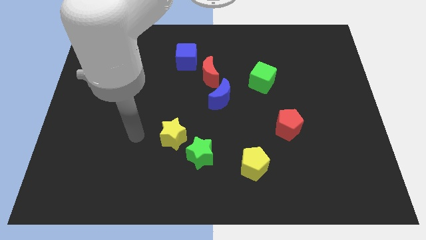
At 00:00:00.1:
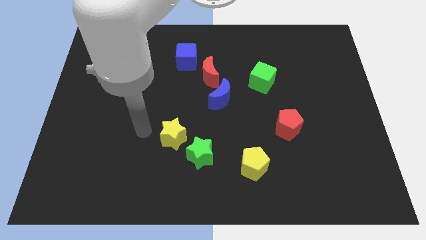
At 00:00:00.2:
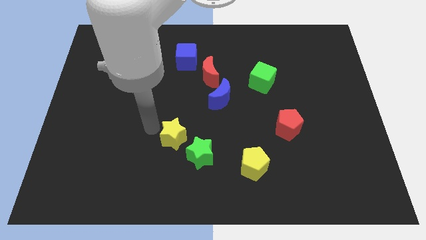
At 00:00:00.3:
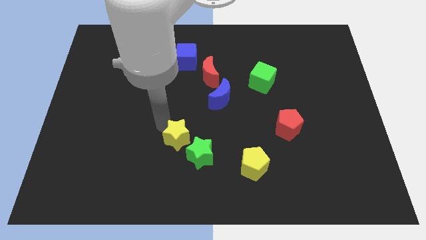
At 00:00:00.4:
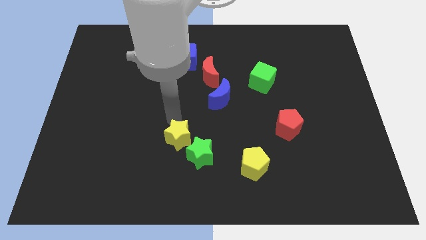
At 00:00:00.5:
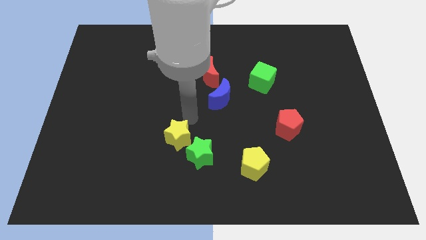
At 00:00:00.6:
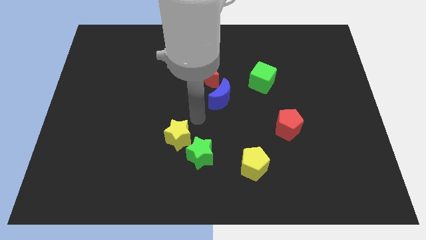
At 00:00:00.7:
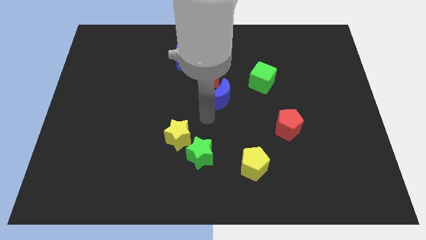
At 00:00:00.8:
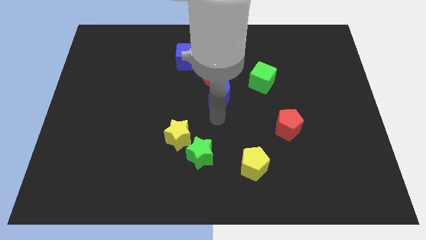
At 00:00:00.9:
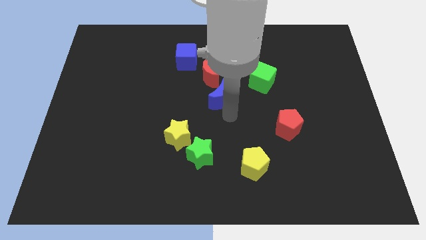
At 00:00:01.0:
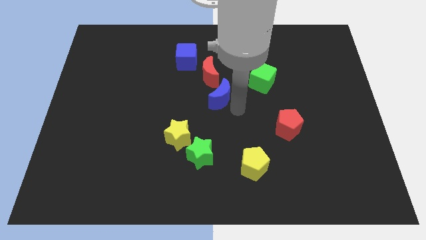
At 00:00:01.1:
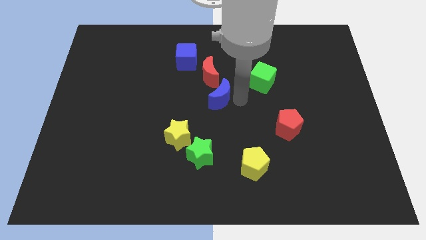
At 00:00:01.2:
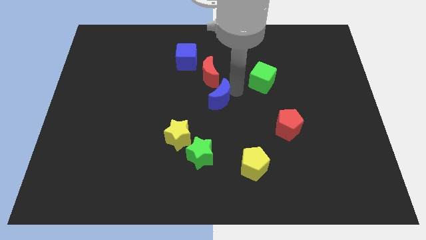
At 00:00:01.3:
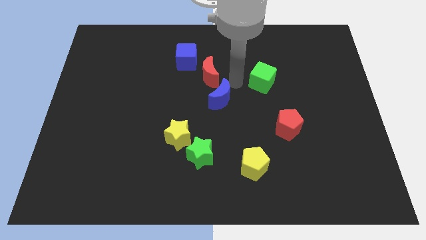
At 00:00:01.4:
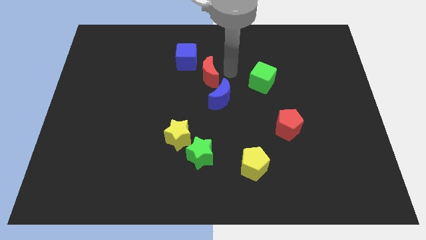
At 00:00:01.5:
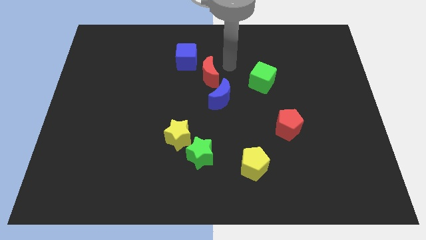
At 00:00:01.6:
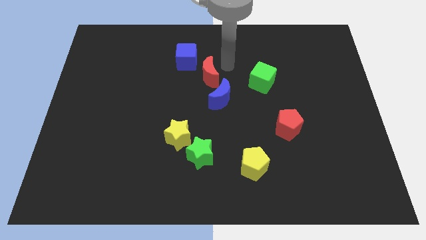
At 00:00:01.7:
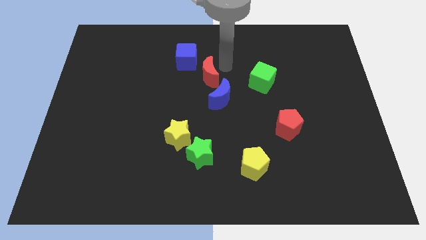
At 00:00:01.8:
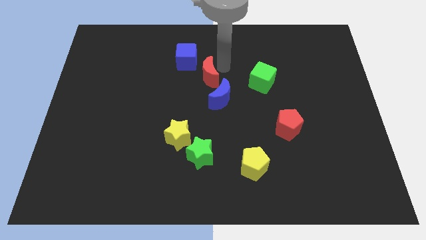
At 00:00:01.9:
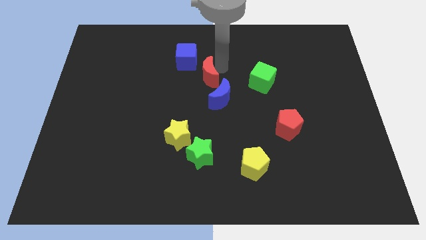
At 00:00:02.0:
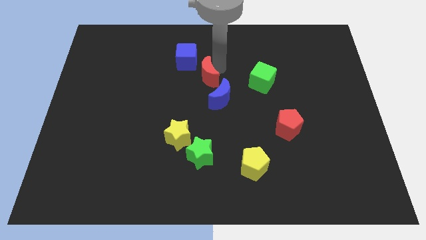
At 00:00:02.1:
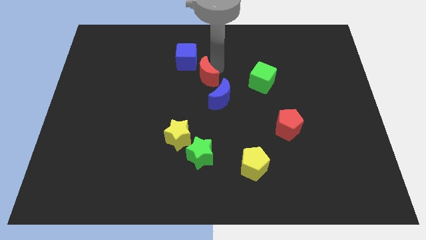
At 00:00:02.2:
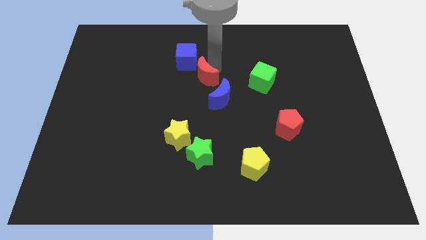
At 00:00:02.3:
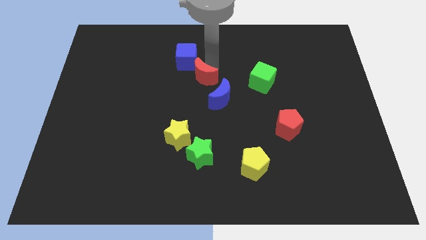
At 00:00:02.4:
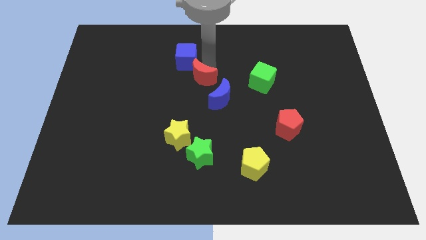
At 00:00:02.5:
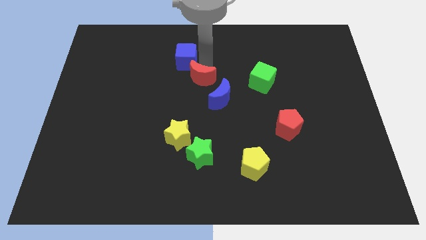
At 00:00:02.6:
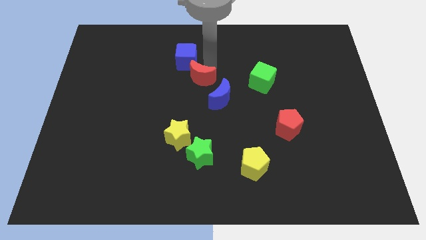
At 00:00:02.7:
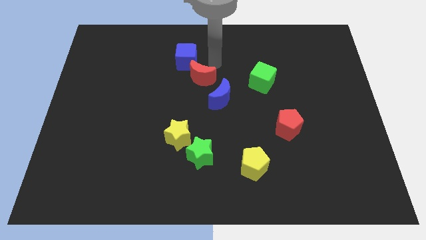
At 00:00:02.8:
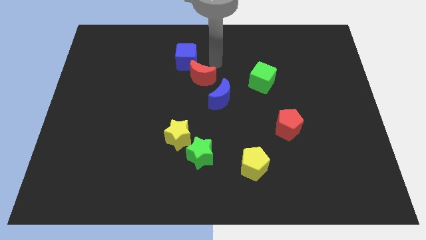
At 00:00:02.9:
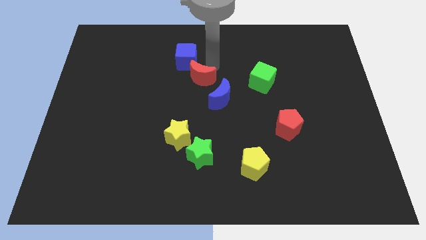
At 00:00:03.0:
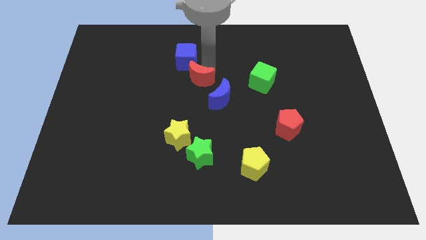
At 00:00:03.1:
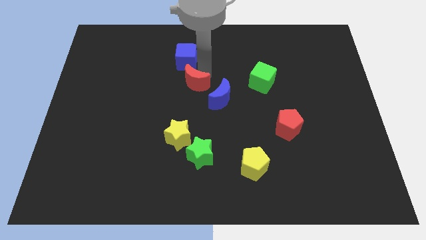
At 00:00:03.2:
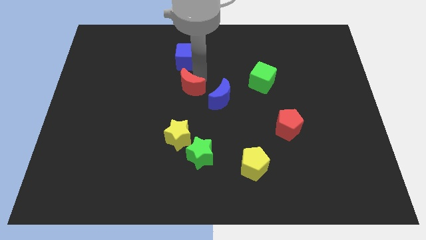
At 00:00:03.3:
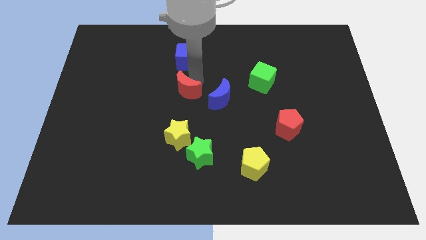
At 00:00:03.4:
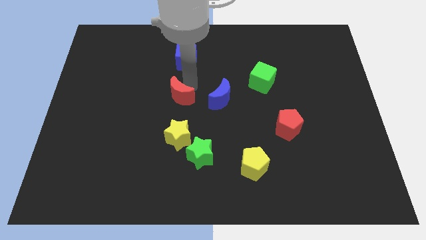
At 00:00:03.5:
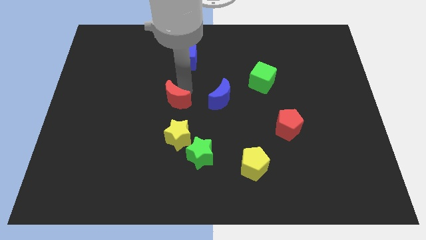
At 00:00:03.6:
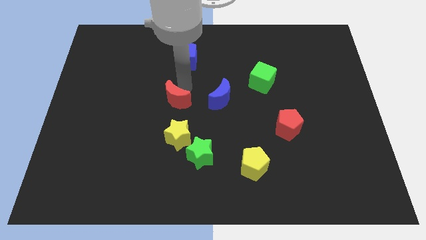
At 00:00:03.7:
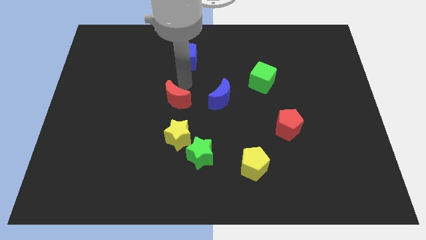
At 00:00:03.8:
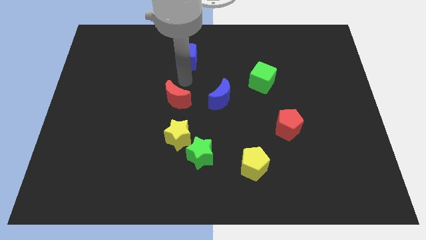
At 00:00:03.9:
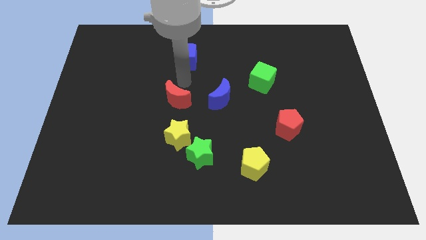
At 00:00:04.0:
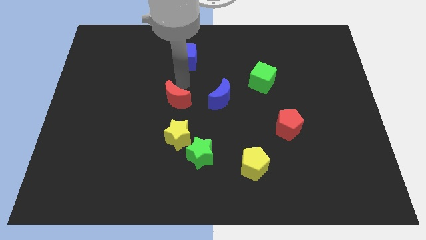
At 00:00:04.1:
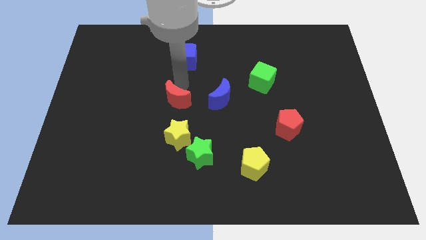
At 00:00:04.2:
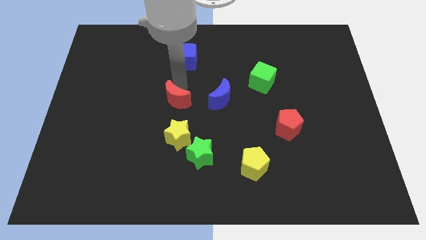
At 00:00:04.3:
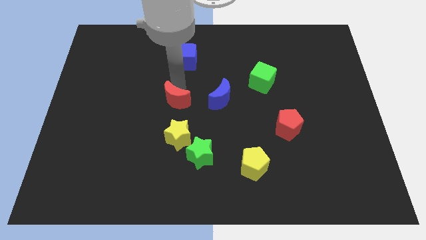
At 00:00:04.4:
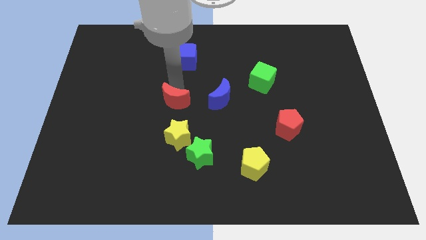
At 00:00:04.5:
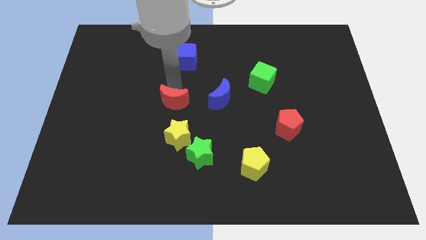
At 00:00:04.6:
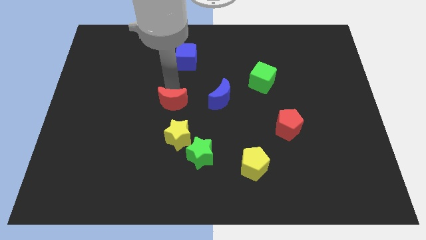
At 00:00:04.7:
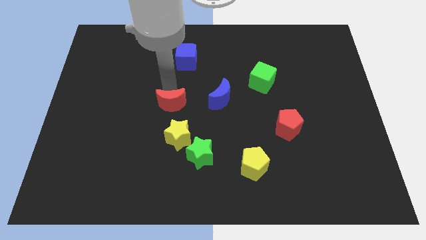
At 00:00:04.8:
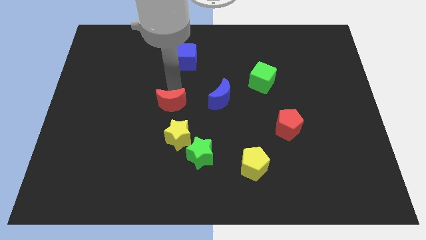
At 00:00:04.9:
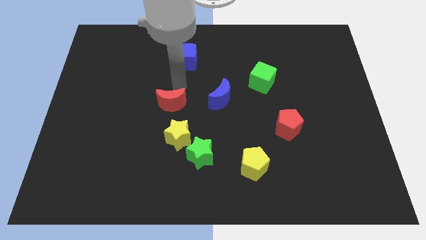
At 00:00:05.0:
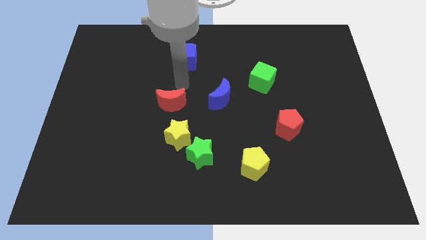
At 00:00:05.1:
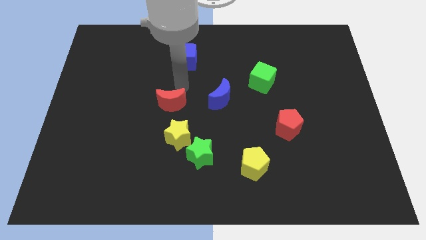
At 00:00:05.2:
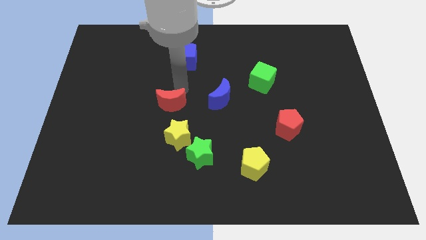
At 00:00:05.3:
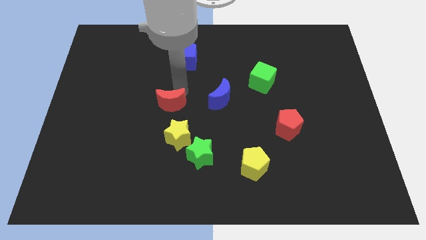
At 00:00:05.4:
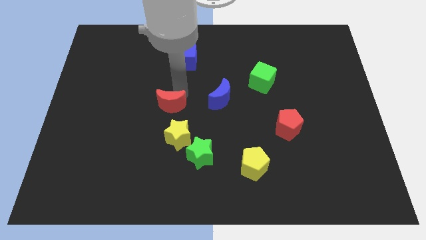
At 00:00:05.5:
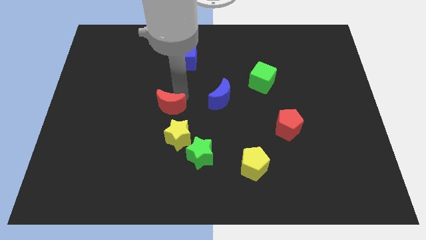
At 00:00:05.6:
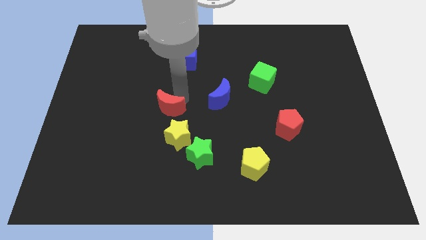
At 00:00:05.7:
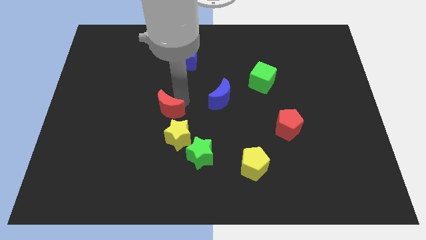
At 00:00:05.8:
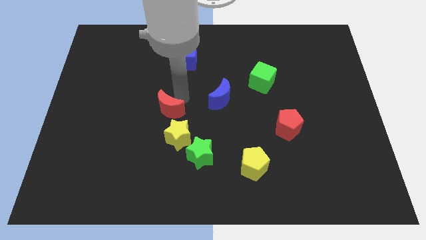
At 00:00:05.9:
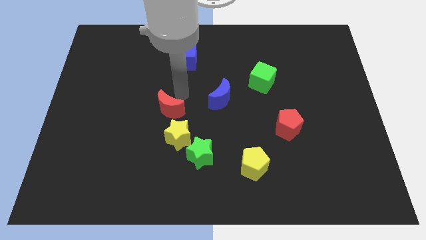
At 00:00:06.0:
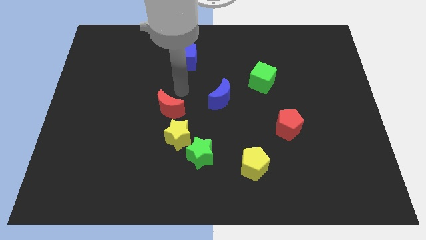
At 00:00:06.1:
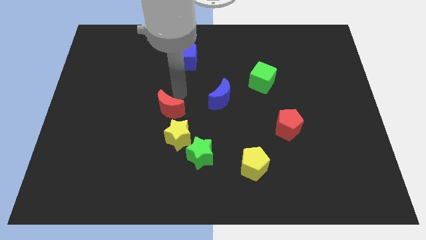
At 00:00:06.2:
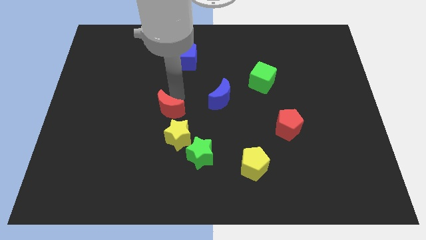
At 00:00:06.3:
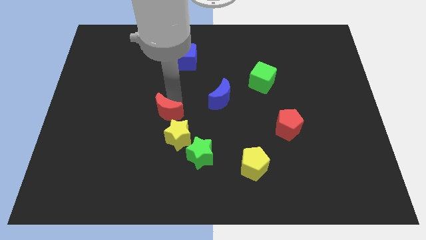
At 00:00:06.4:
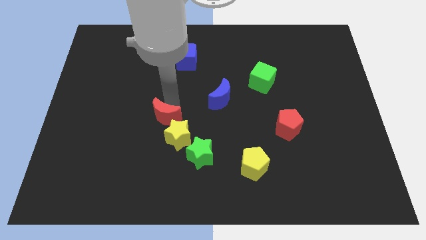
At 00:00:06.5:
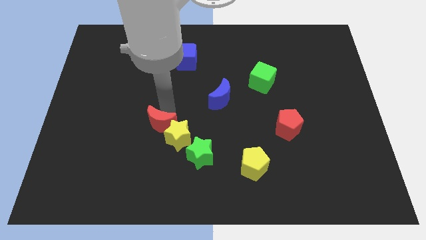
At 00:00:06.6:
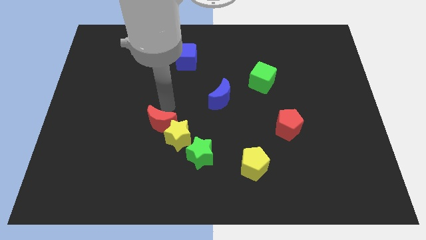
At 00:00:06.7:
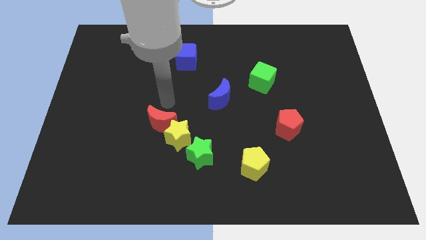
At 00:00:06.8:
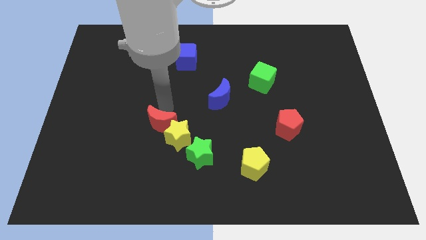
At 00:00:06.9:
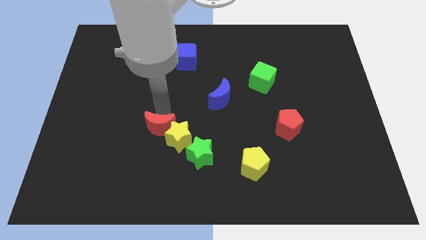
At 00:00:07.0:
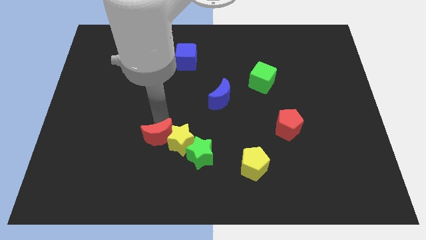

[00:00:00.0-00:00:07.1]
move the red moon diagonally down and to the left of the yellow star
